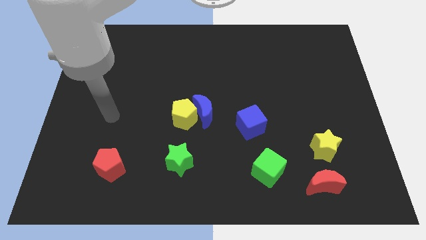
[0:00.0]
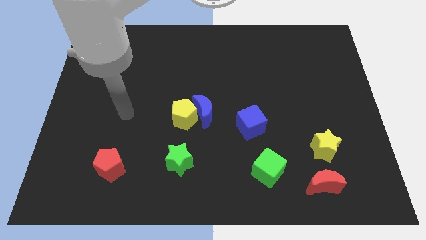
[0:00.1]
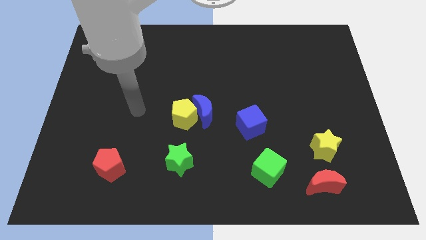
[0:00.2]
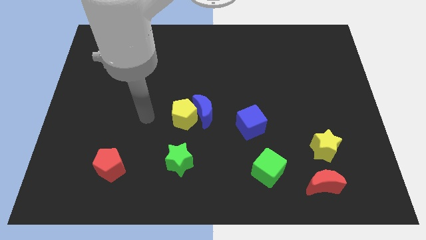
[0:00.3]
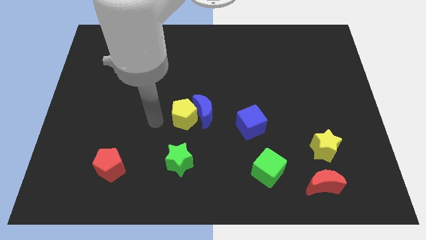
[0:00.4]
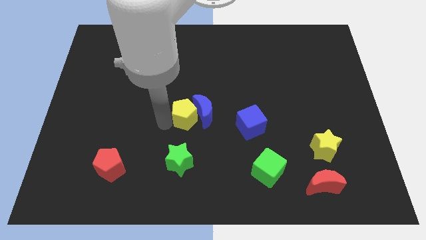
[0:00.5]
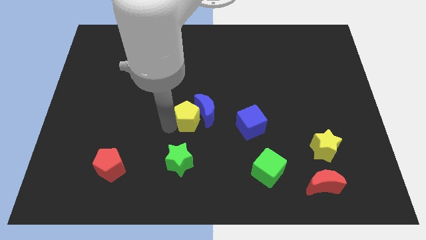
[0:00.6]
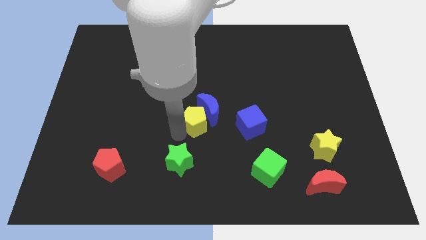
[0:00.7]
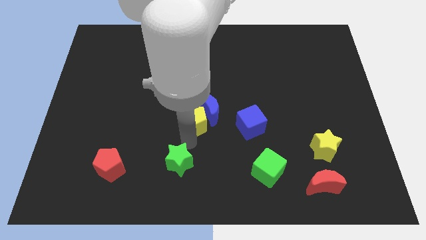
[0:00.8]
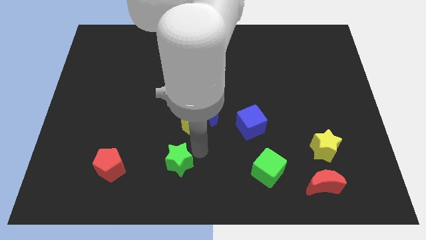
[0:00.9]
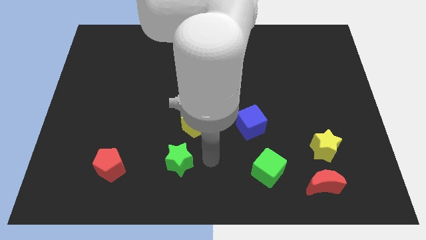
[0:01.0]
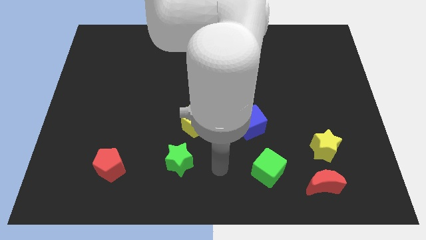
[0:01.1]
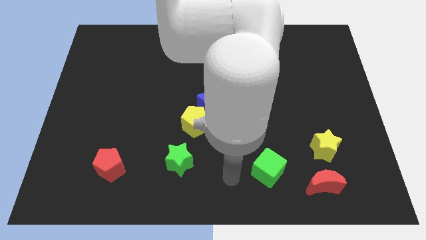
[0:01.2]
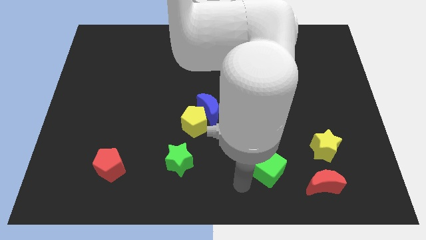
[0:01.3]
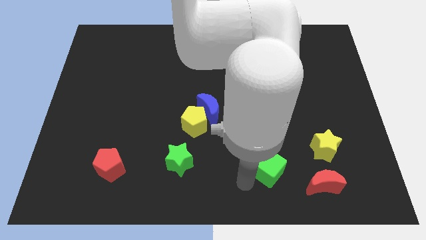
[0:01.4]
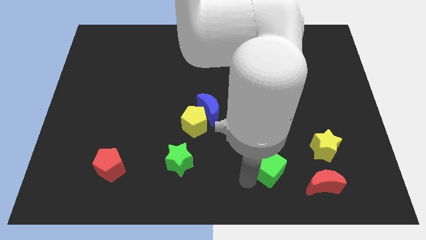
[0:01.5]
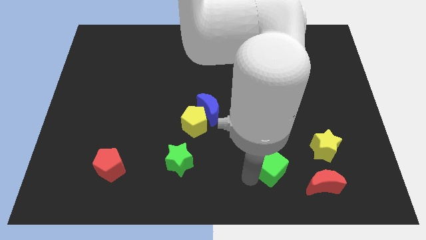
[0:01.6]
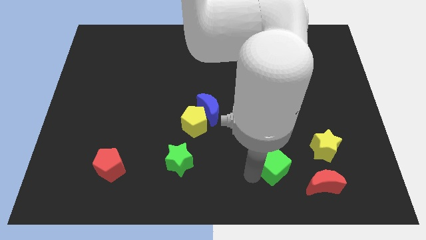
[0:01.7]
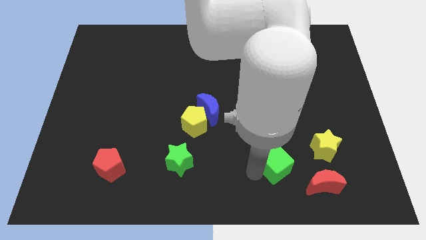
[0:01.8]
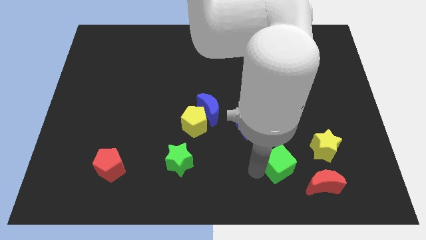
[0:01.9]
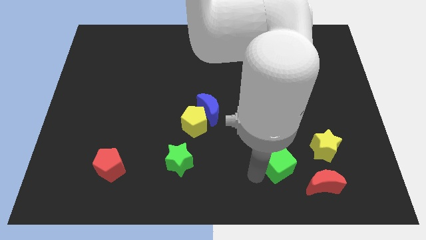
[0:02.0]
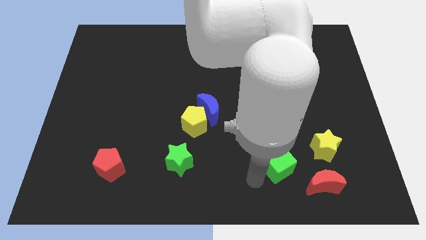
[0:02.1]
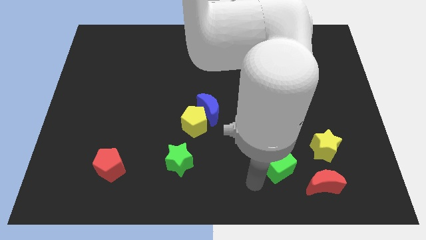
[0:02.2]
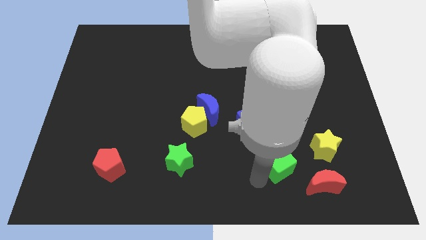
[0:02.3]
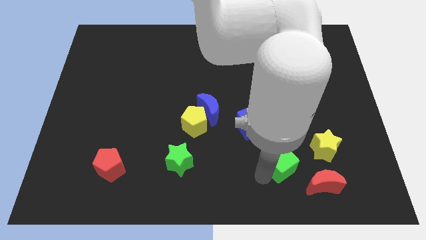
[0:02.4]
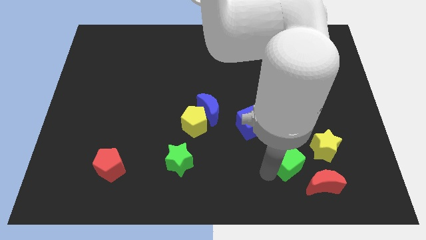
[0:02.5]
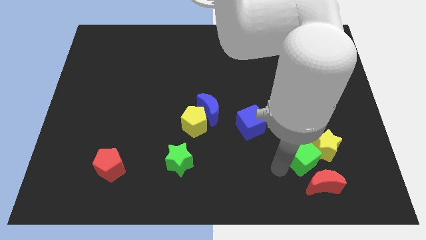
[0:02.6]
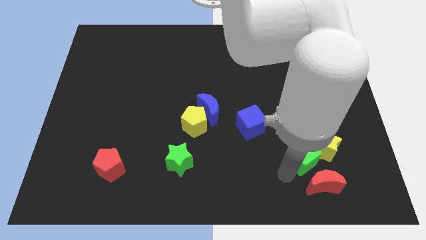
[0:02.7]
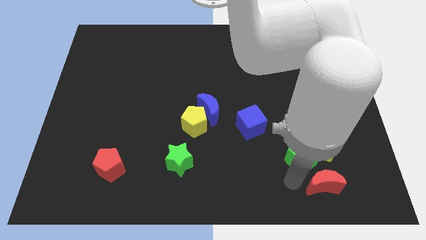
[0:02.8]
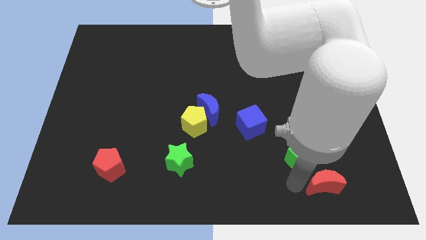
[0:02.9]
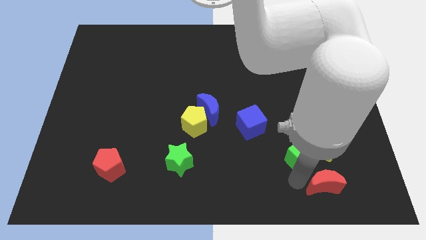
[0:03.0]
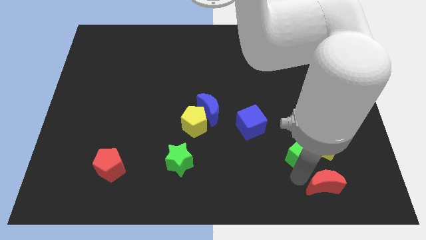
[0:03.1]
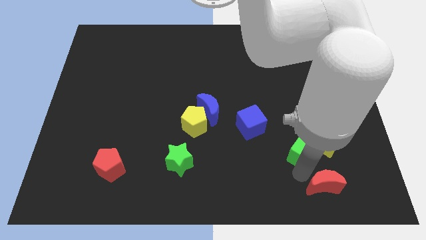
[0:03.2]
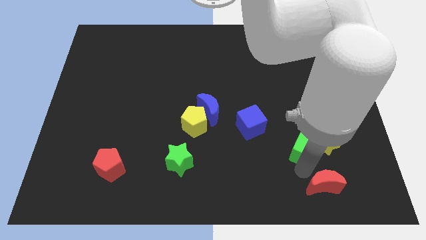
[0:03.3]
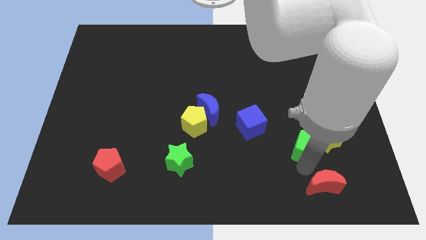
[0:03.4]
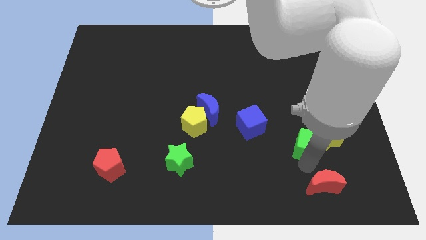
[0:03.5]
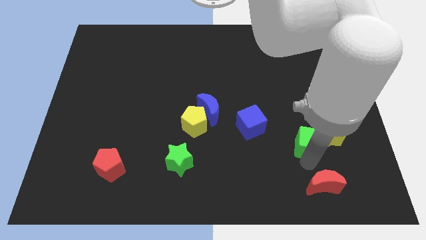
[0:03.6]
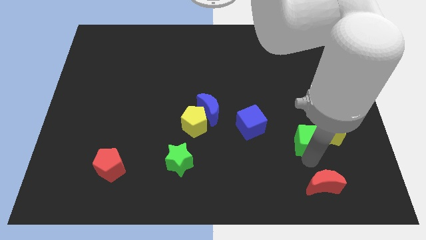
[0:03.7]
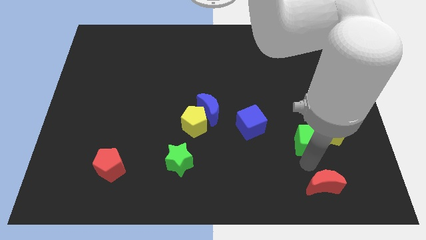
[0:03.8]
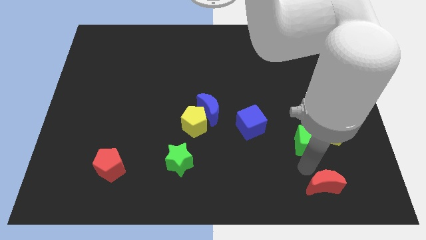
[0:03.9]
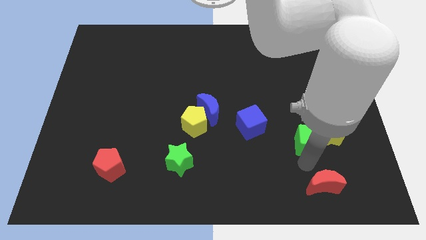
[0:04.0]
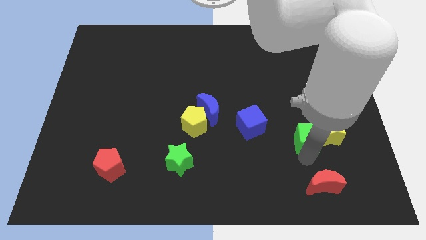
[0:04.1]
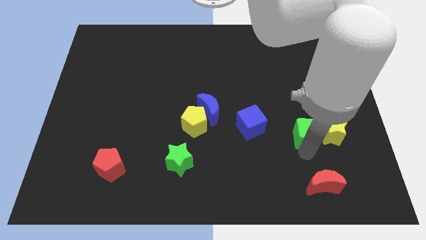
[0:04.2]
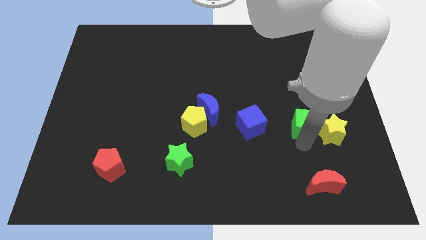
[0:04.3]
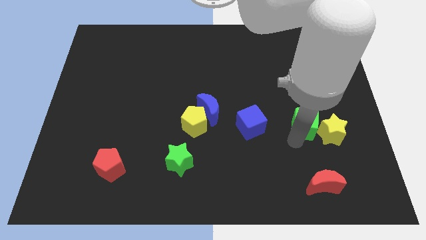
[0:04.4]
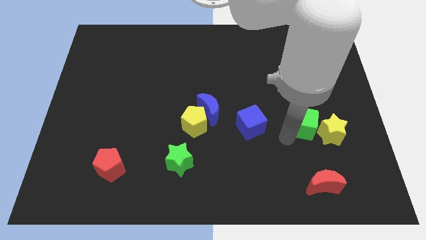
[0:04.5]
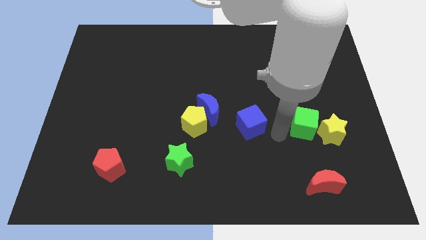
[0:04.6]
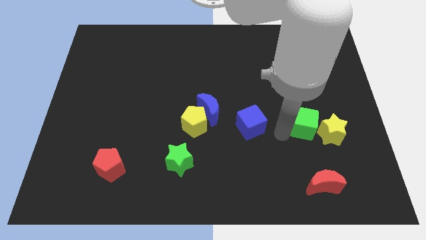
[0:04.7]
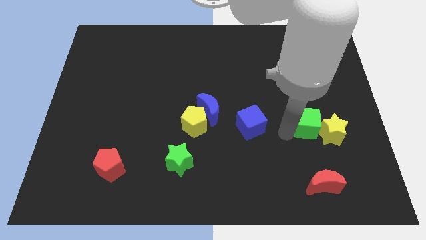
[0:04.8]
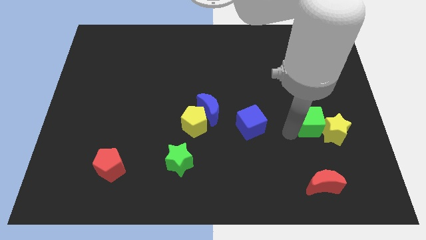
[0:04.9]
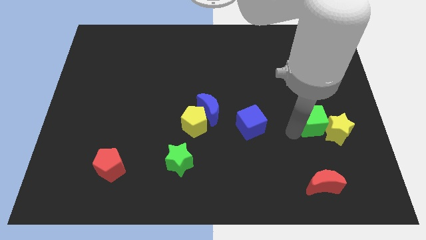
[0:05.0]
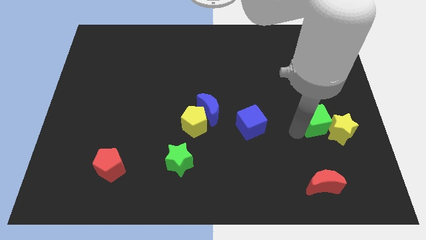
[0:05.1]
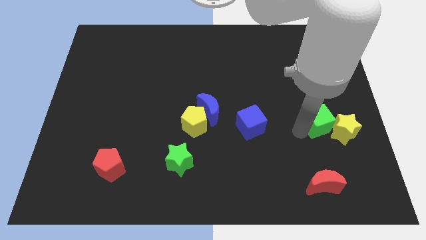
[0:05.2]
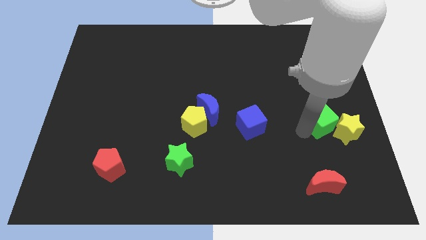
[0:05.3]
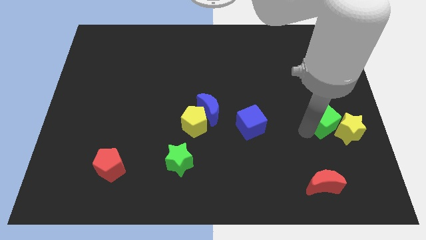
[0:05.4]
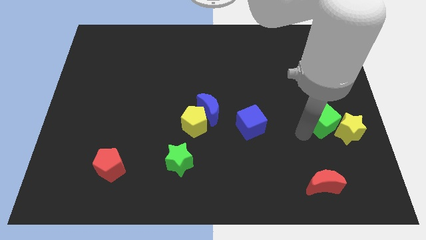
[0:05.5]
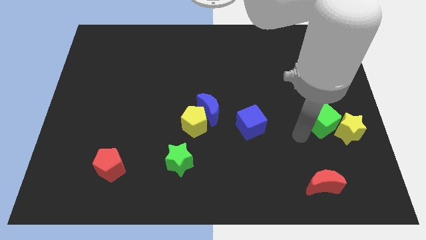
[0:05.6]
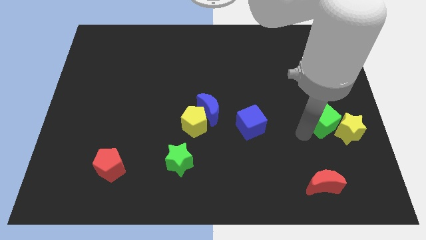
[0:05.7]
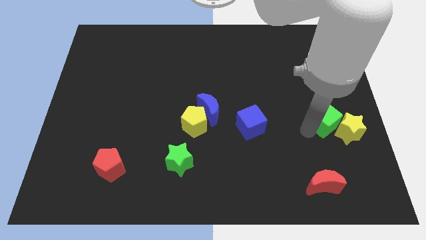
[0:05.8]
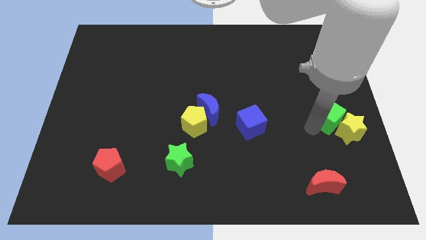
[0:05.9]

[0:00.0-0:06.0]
push the green cube to the right side

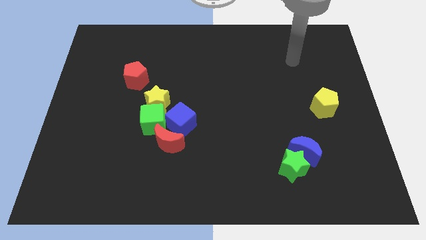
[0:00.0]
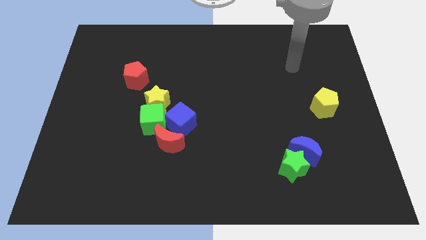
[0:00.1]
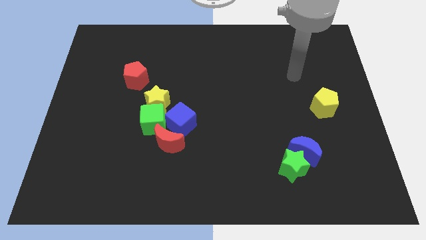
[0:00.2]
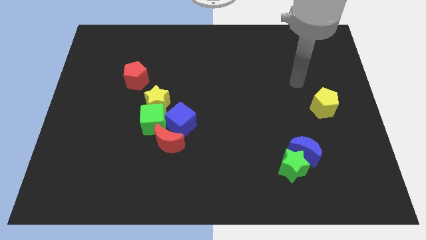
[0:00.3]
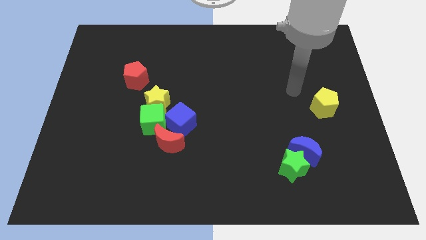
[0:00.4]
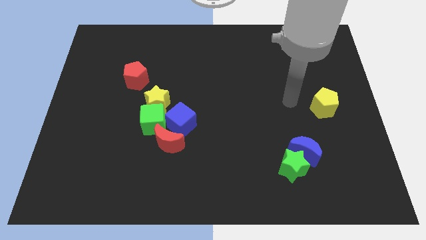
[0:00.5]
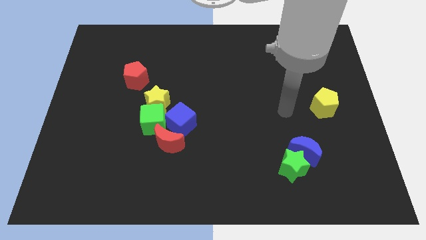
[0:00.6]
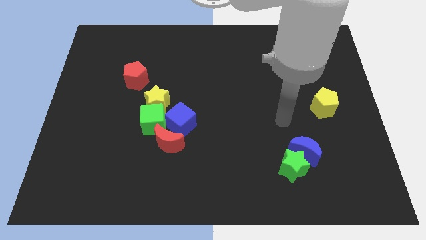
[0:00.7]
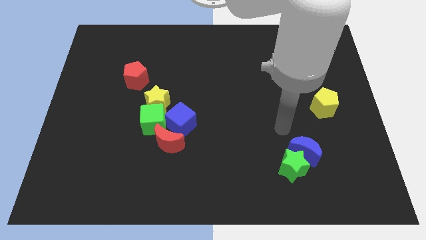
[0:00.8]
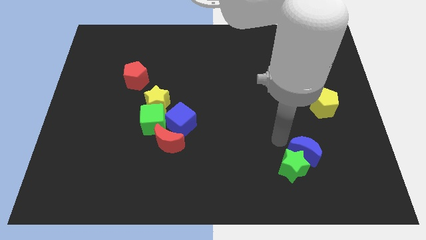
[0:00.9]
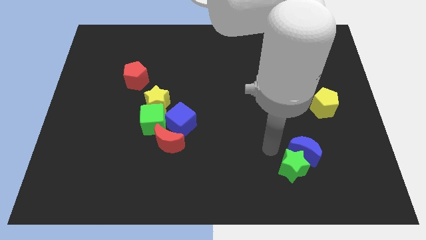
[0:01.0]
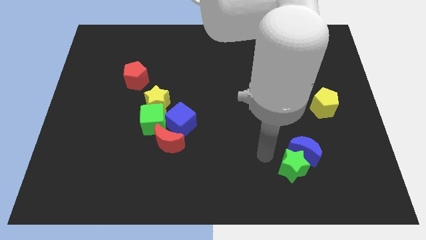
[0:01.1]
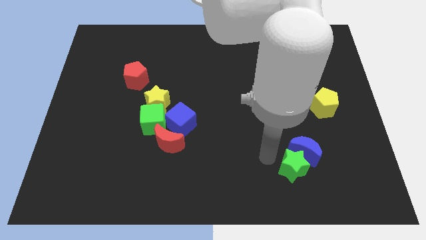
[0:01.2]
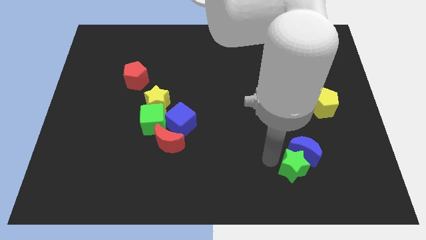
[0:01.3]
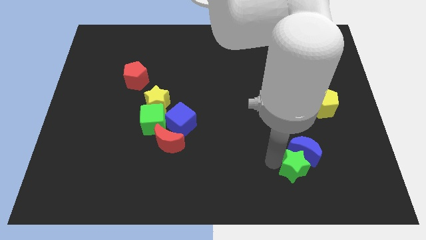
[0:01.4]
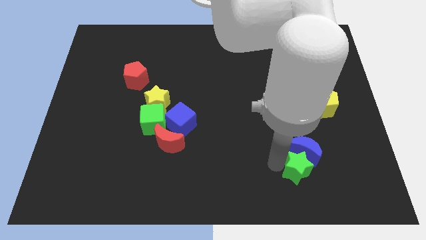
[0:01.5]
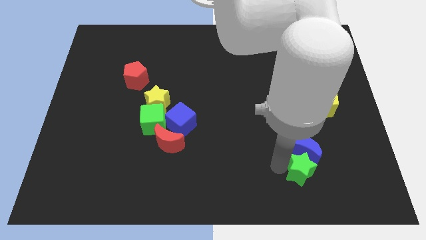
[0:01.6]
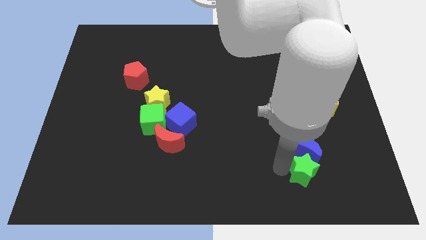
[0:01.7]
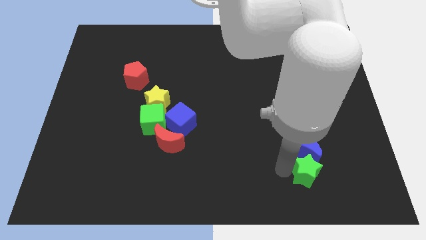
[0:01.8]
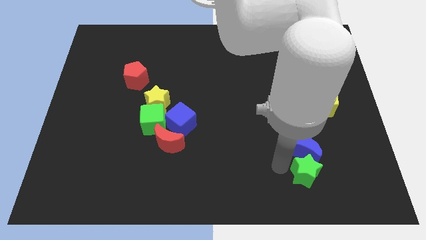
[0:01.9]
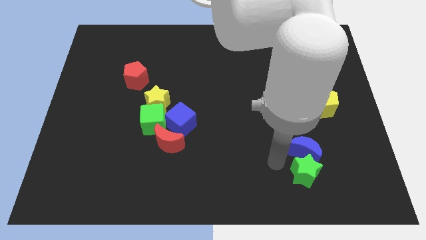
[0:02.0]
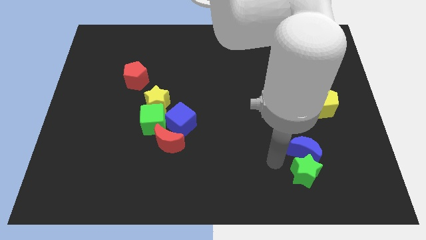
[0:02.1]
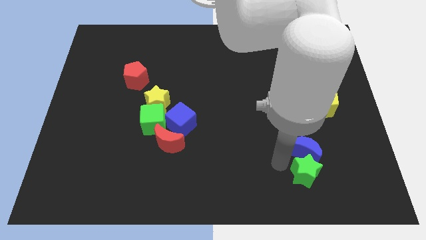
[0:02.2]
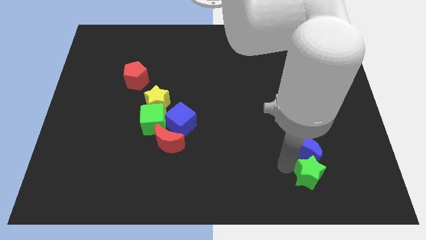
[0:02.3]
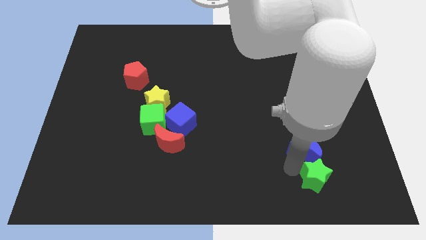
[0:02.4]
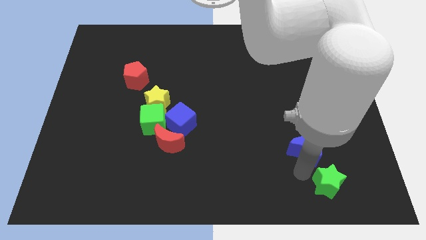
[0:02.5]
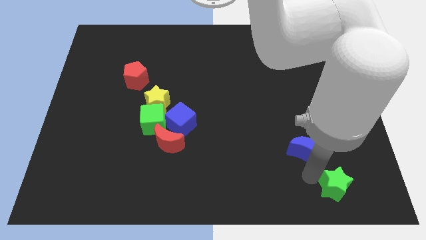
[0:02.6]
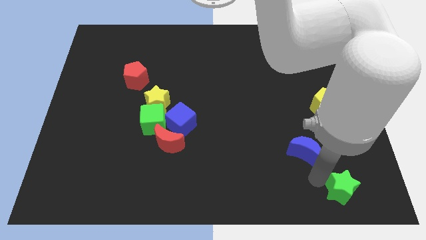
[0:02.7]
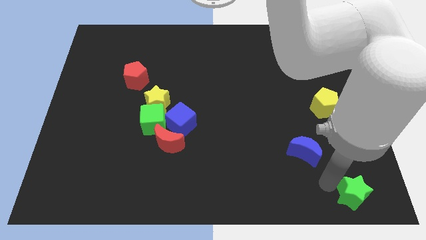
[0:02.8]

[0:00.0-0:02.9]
push the green star to the lower right corner
